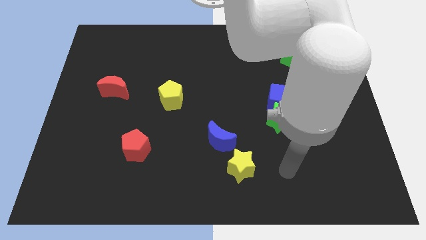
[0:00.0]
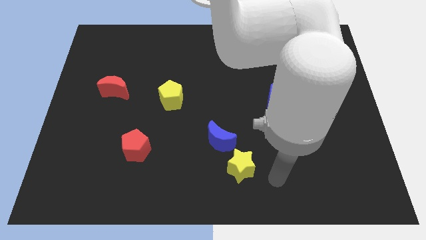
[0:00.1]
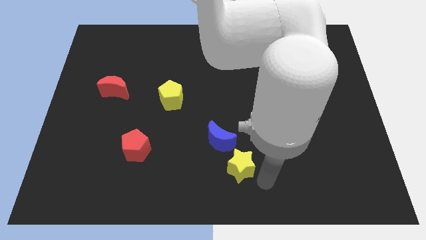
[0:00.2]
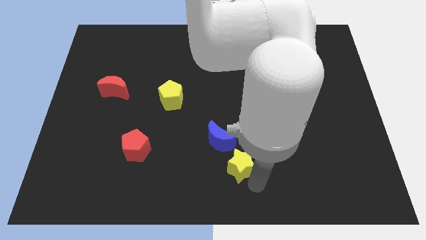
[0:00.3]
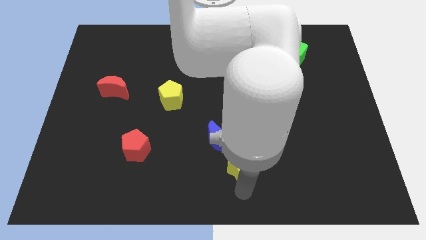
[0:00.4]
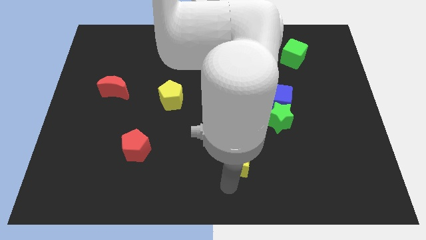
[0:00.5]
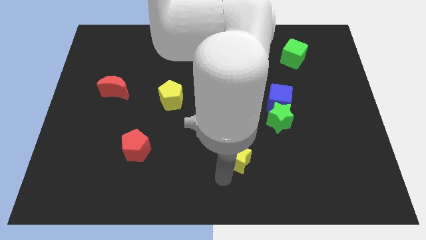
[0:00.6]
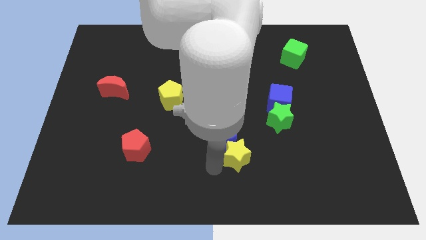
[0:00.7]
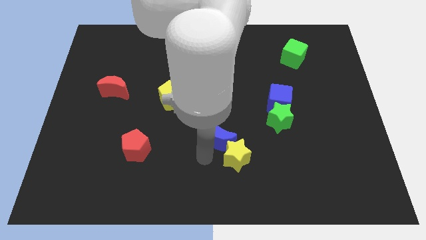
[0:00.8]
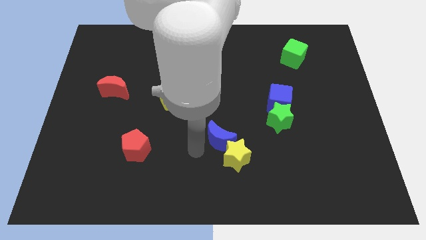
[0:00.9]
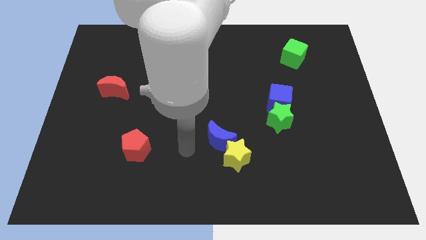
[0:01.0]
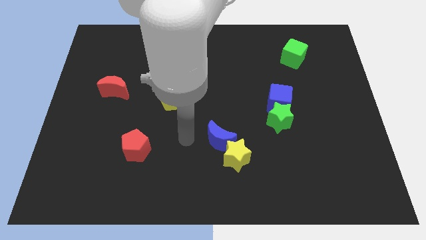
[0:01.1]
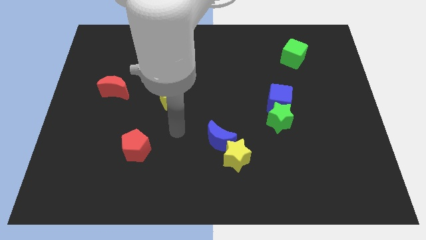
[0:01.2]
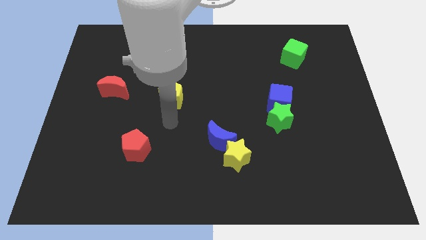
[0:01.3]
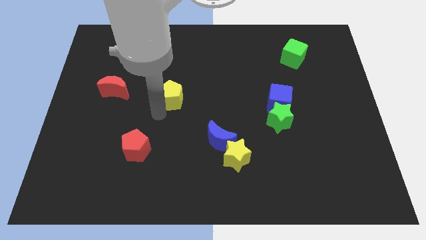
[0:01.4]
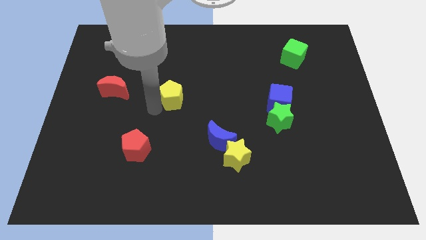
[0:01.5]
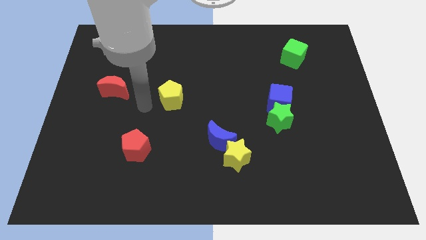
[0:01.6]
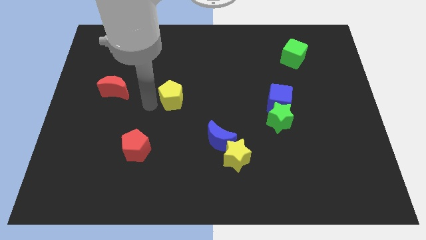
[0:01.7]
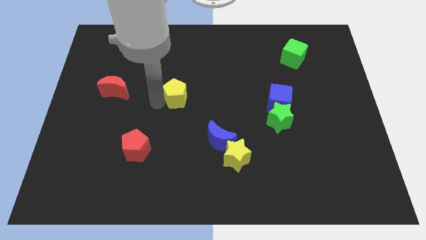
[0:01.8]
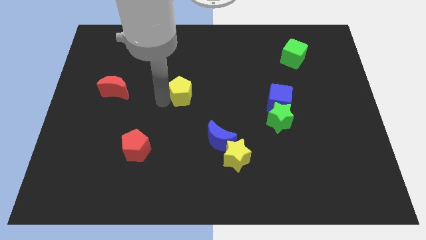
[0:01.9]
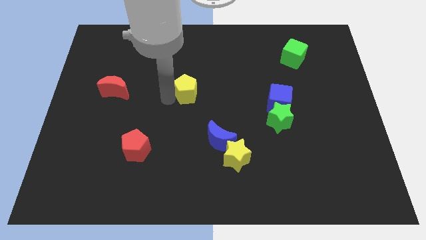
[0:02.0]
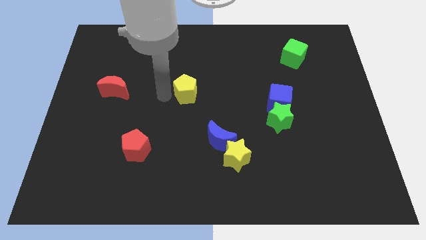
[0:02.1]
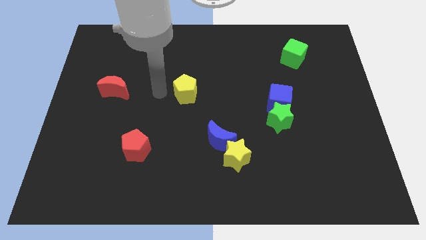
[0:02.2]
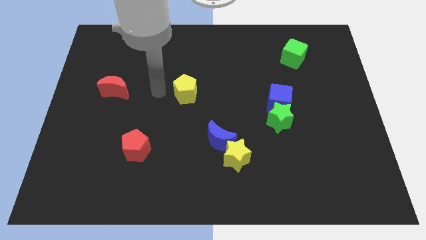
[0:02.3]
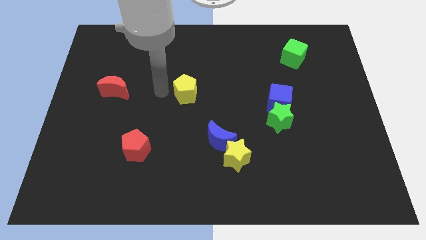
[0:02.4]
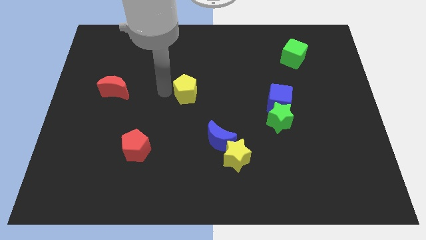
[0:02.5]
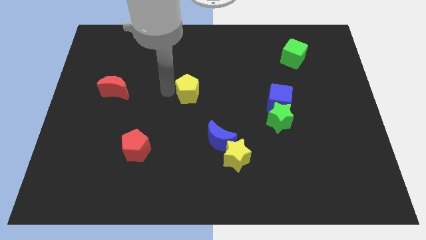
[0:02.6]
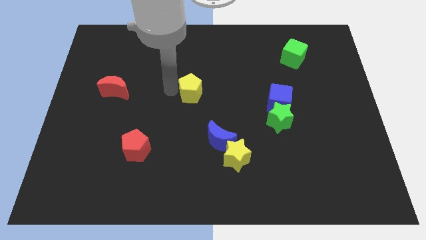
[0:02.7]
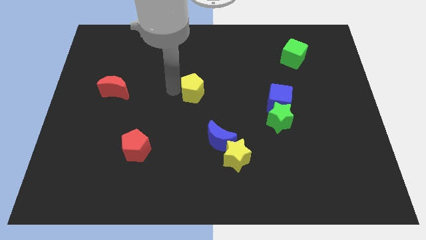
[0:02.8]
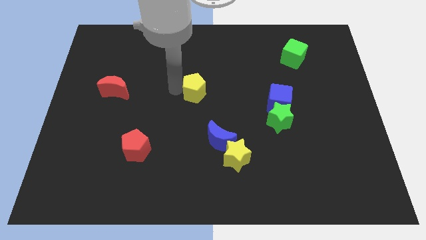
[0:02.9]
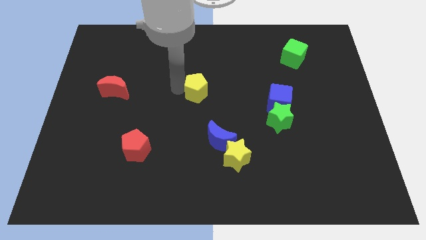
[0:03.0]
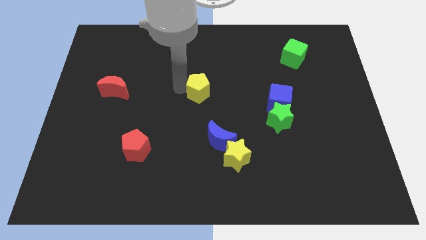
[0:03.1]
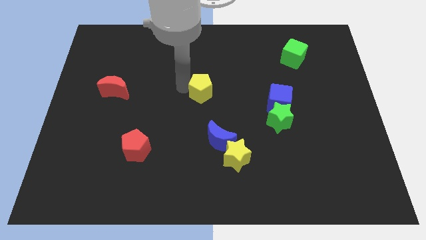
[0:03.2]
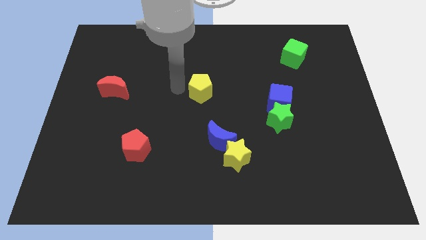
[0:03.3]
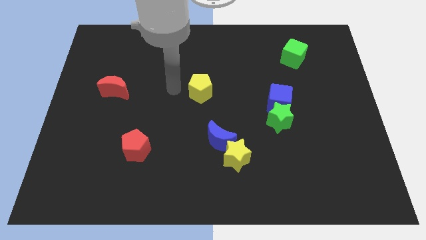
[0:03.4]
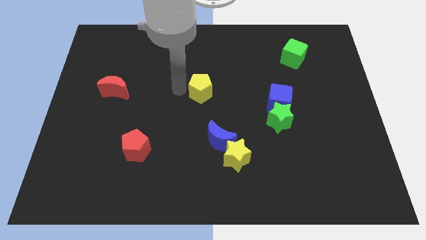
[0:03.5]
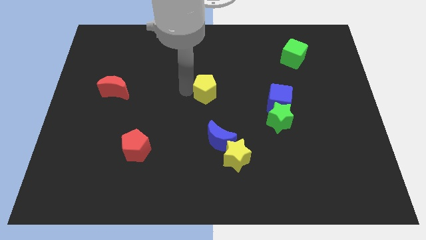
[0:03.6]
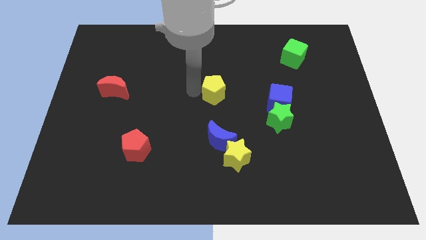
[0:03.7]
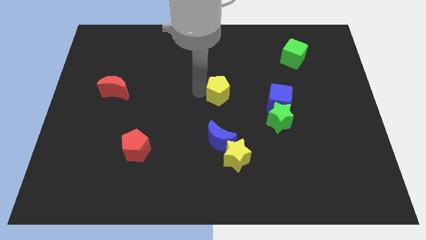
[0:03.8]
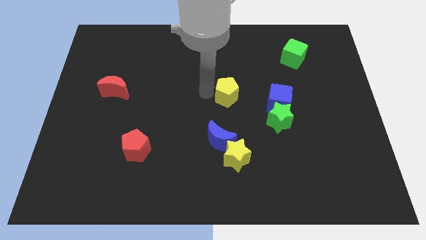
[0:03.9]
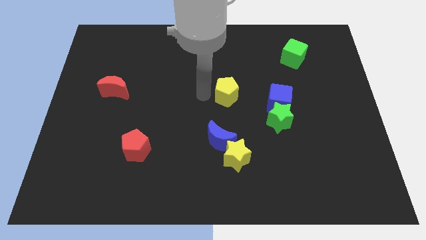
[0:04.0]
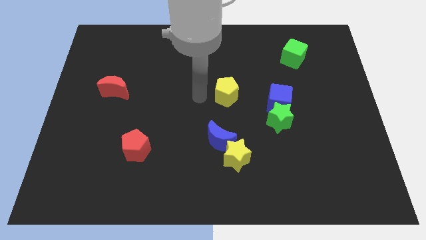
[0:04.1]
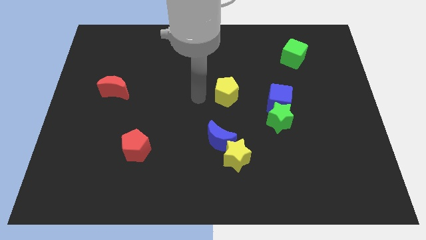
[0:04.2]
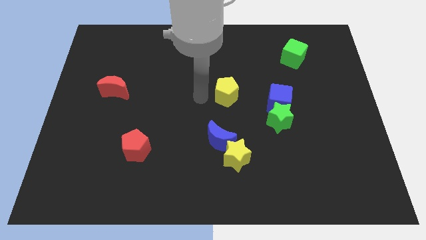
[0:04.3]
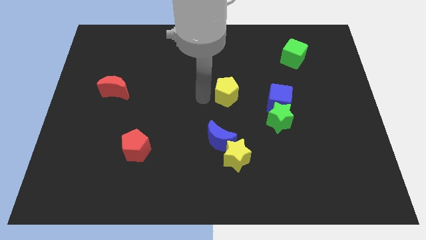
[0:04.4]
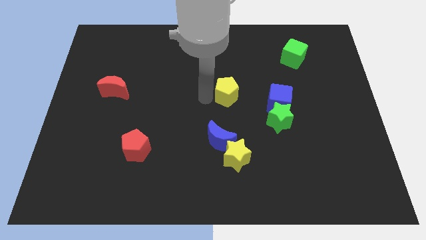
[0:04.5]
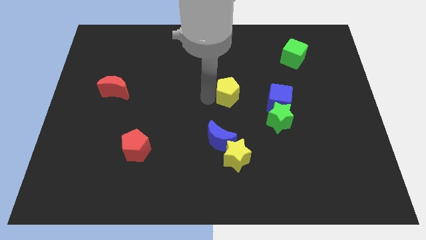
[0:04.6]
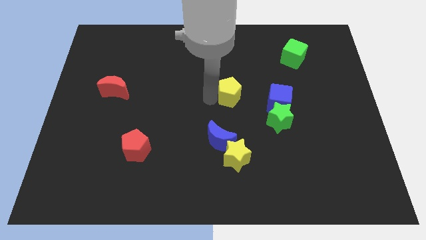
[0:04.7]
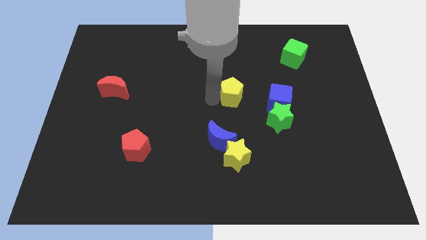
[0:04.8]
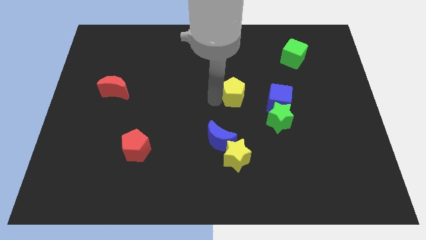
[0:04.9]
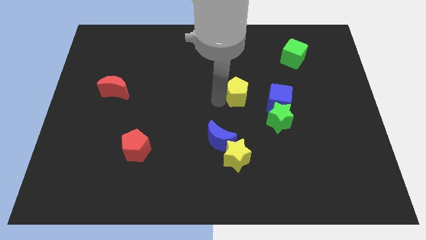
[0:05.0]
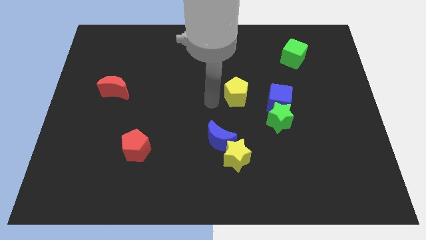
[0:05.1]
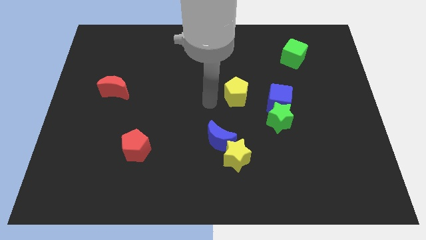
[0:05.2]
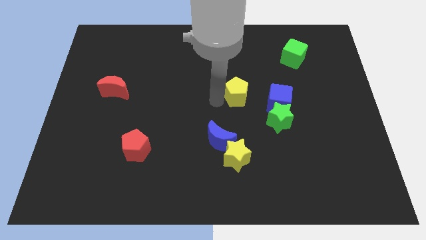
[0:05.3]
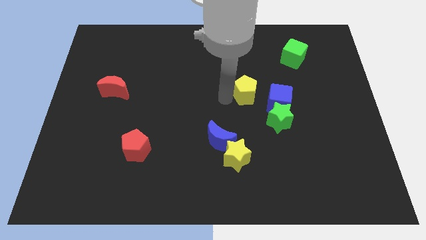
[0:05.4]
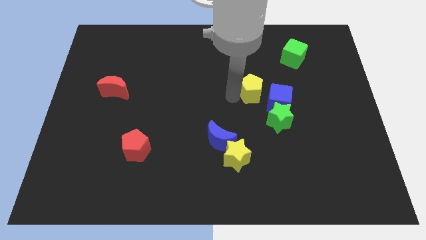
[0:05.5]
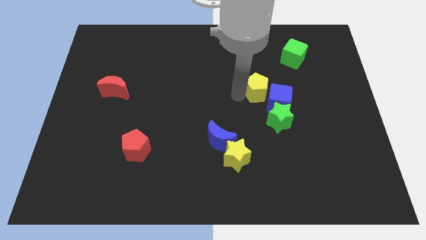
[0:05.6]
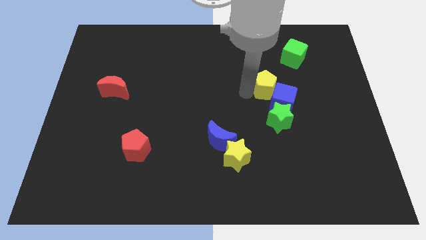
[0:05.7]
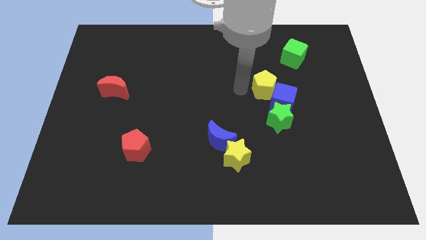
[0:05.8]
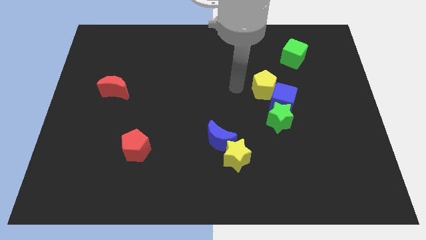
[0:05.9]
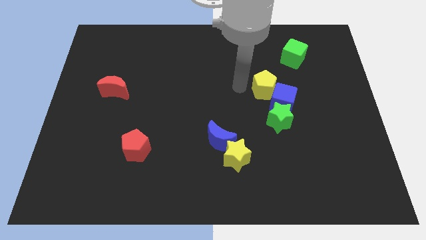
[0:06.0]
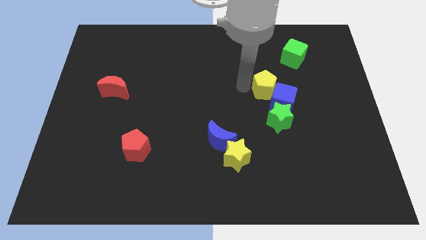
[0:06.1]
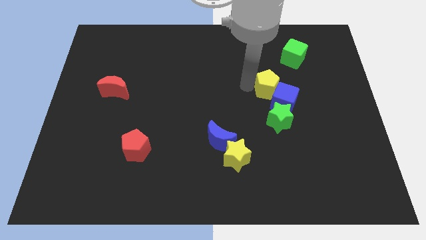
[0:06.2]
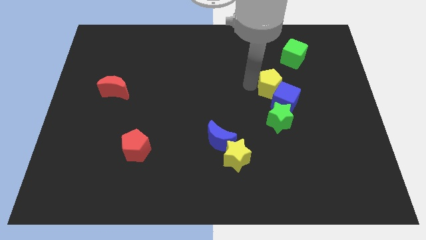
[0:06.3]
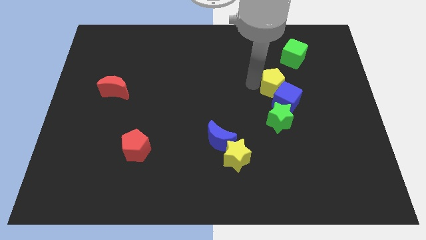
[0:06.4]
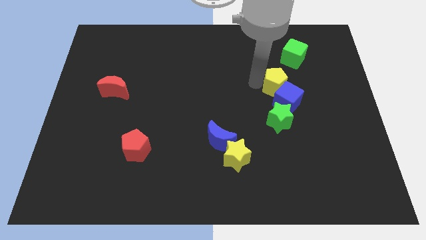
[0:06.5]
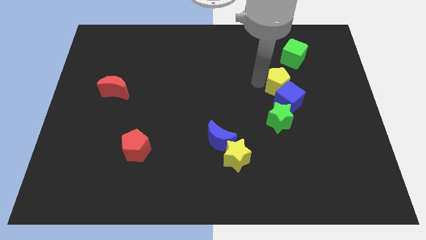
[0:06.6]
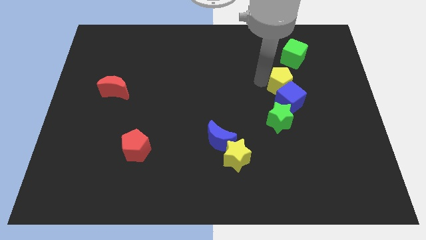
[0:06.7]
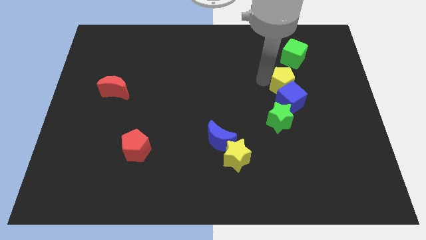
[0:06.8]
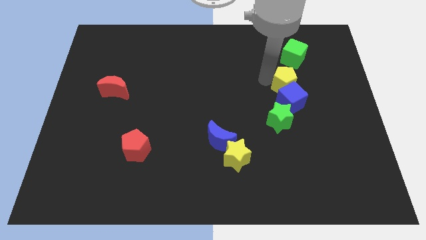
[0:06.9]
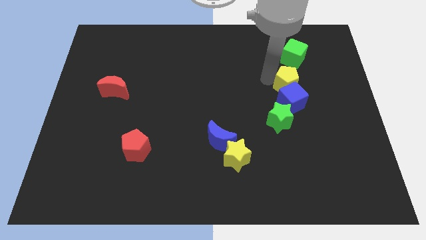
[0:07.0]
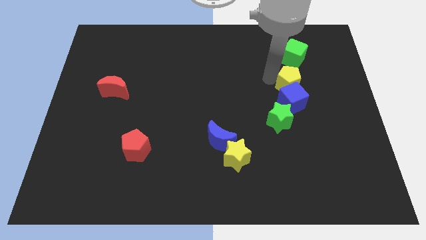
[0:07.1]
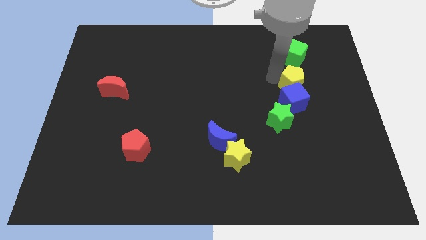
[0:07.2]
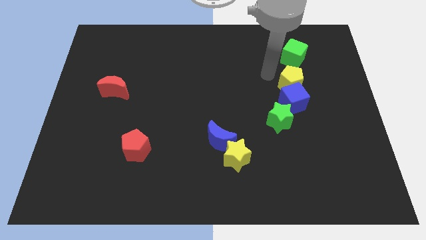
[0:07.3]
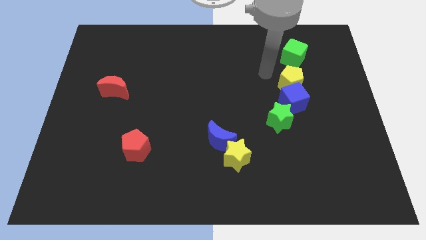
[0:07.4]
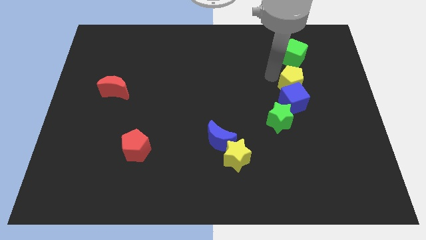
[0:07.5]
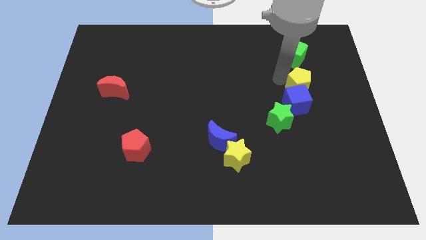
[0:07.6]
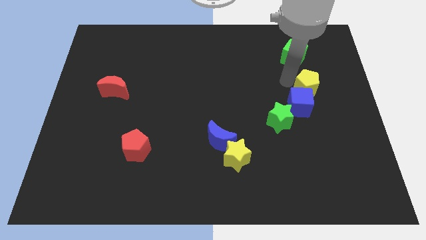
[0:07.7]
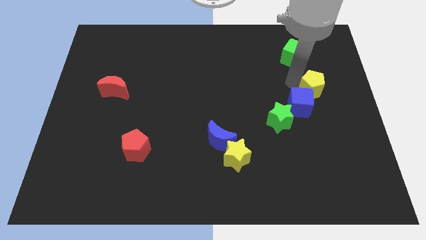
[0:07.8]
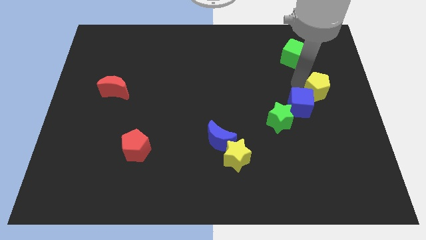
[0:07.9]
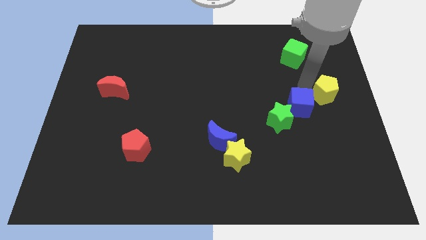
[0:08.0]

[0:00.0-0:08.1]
put the yellow pentagon to the right side
